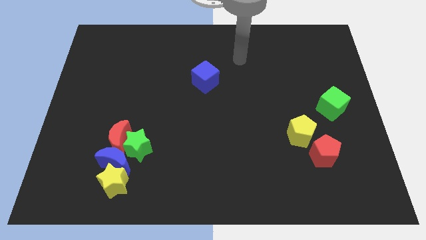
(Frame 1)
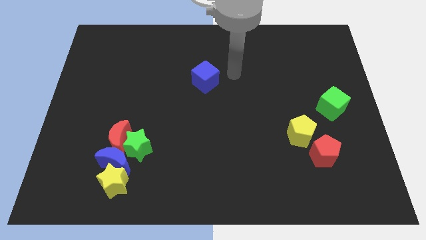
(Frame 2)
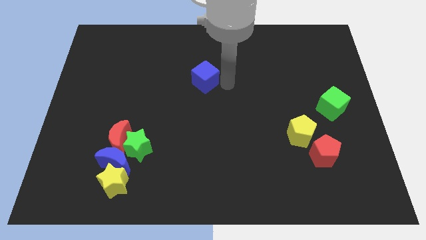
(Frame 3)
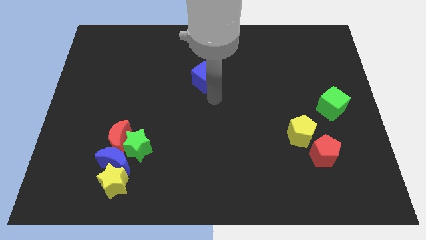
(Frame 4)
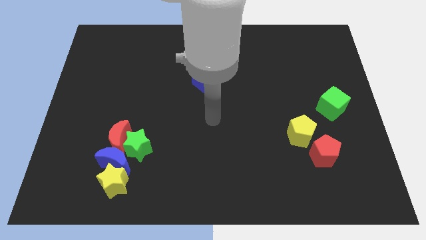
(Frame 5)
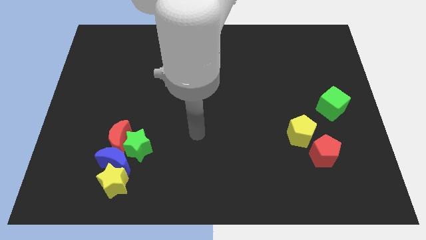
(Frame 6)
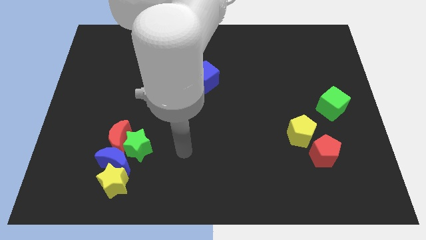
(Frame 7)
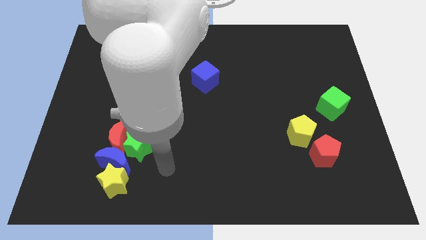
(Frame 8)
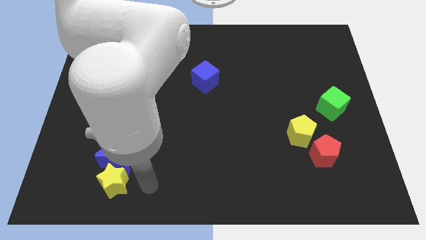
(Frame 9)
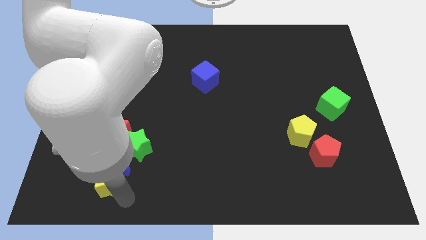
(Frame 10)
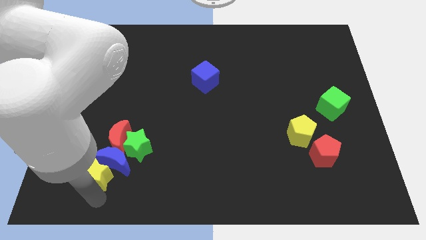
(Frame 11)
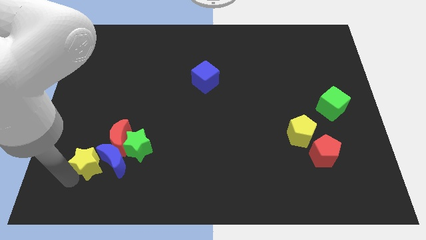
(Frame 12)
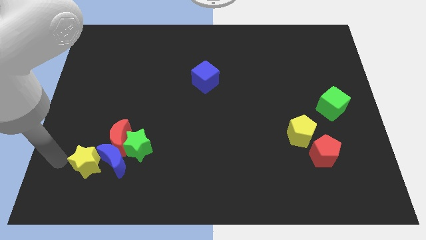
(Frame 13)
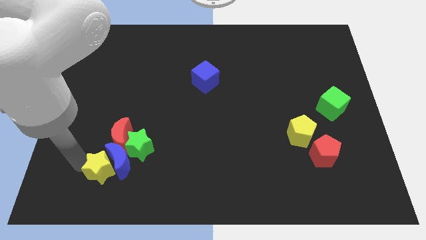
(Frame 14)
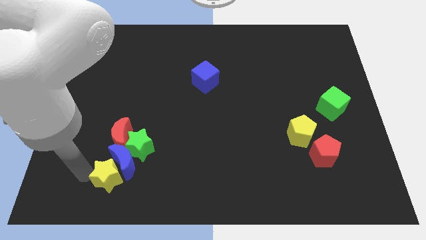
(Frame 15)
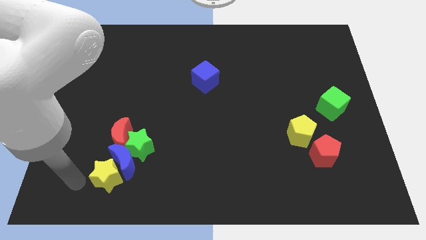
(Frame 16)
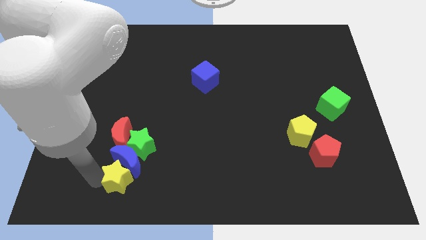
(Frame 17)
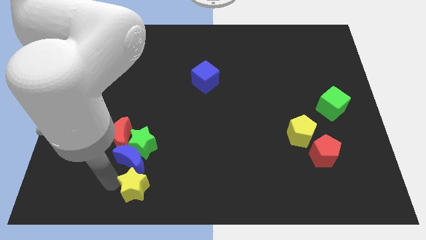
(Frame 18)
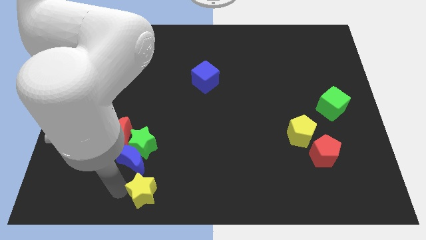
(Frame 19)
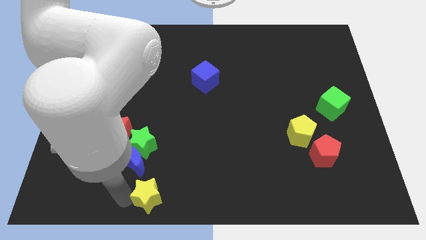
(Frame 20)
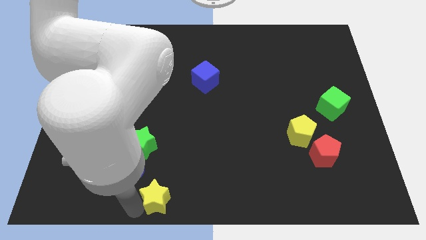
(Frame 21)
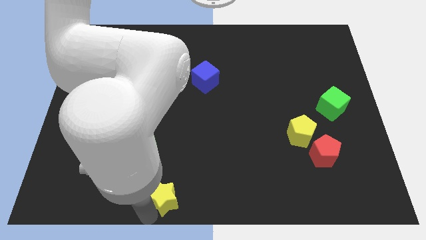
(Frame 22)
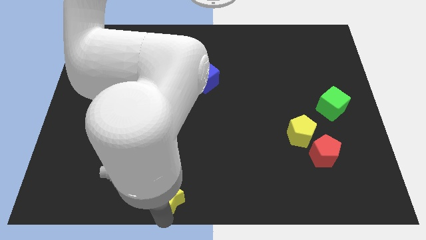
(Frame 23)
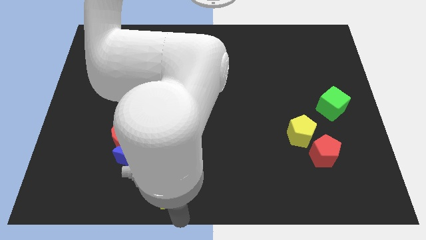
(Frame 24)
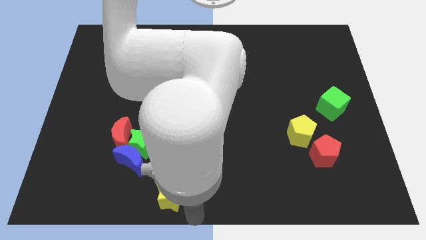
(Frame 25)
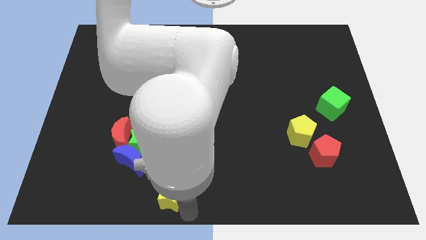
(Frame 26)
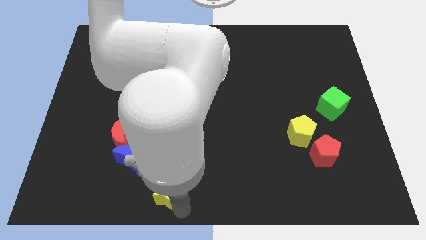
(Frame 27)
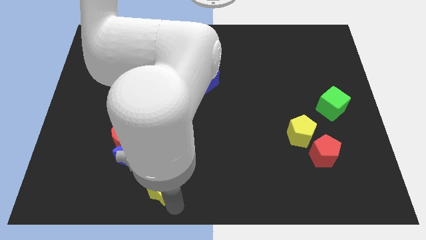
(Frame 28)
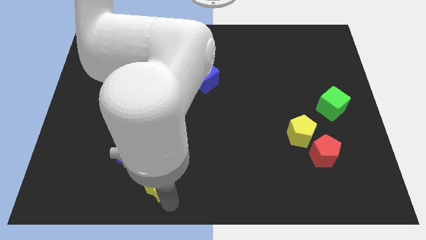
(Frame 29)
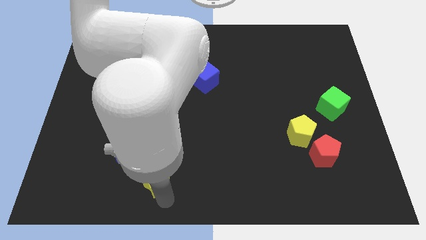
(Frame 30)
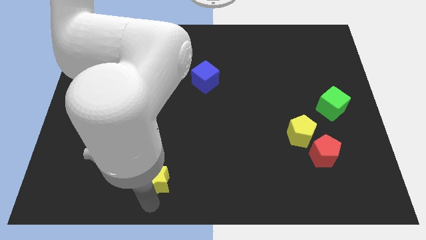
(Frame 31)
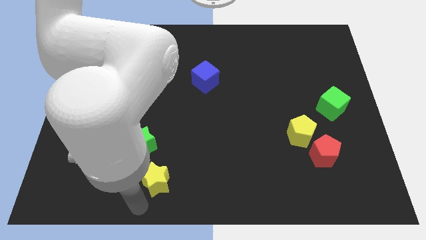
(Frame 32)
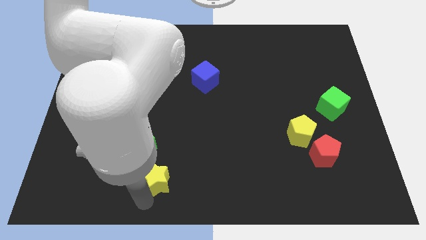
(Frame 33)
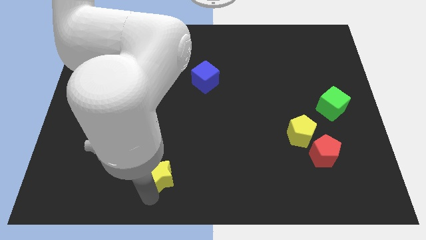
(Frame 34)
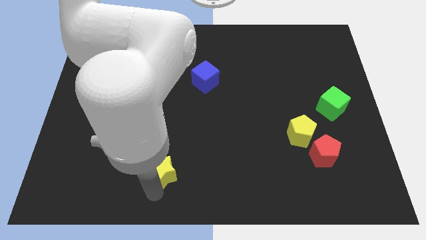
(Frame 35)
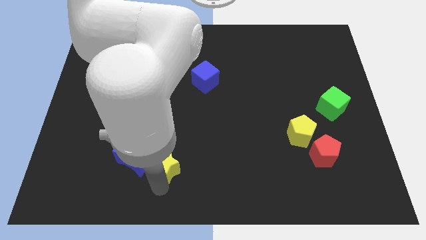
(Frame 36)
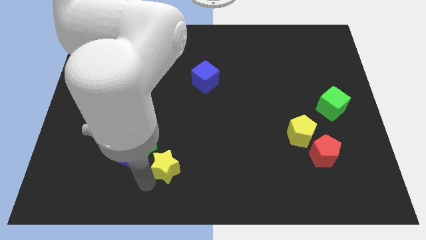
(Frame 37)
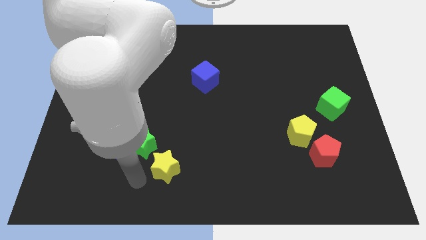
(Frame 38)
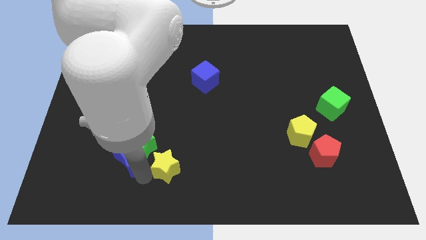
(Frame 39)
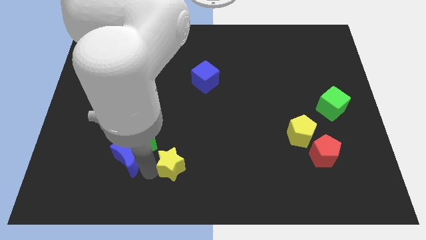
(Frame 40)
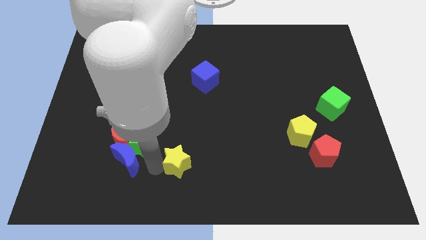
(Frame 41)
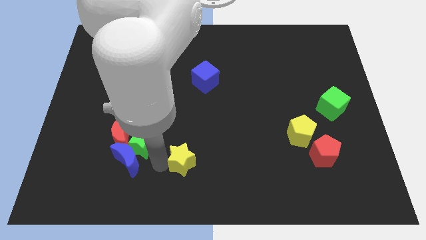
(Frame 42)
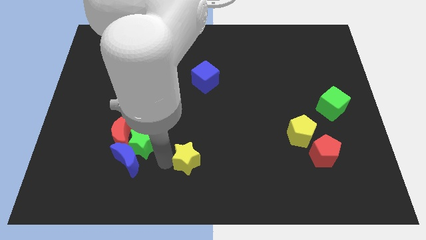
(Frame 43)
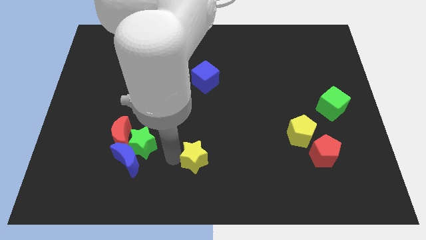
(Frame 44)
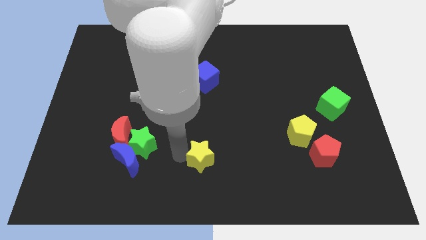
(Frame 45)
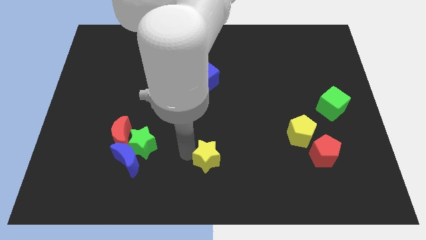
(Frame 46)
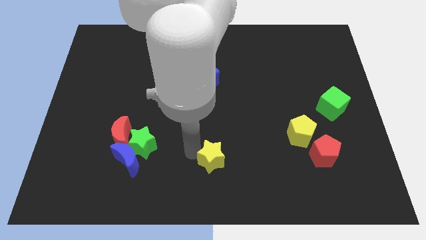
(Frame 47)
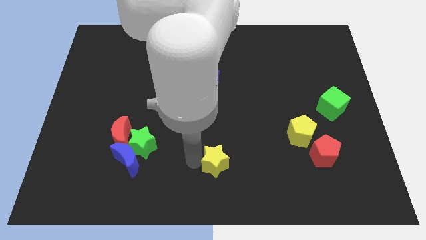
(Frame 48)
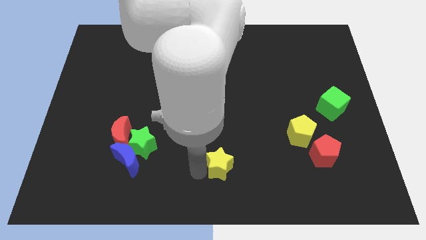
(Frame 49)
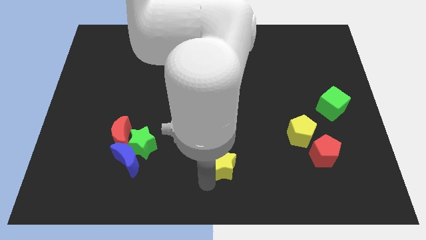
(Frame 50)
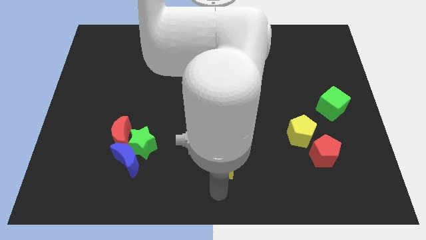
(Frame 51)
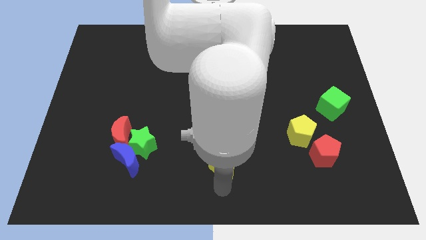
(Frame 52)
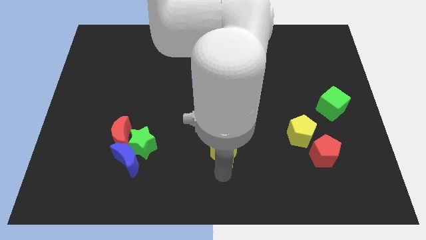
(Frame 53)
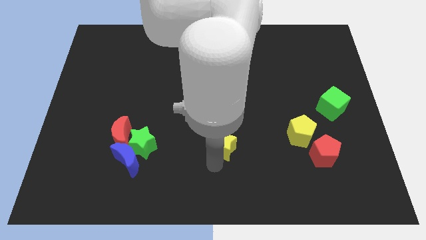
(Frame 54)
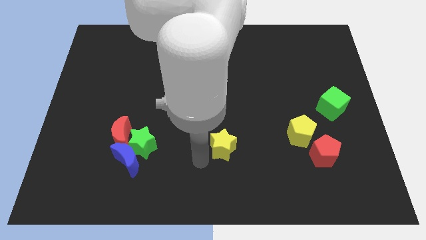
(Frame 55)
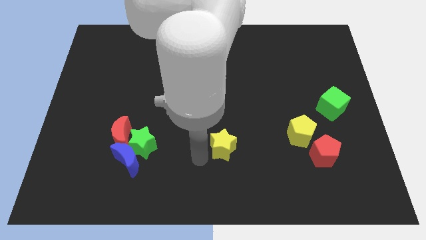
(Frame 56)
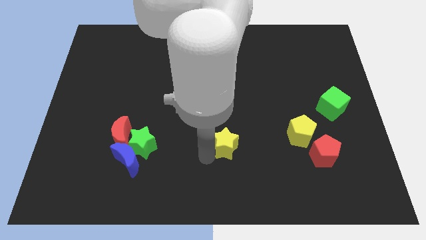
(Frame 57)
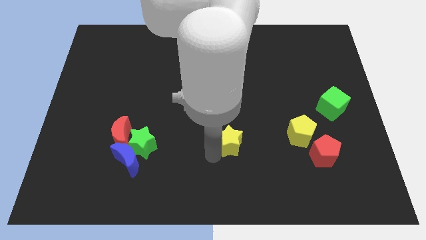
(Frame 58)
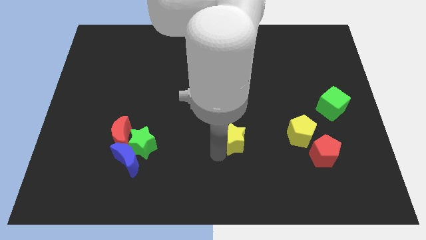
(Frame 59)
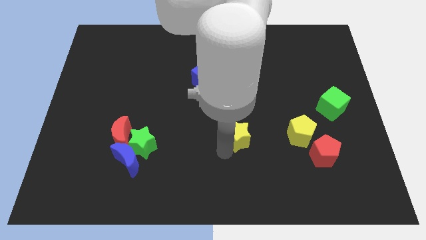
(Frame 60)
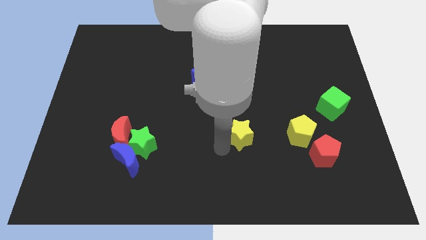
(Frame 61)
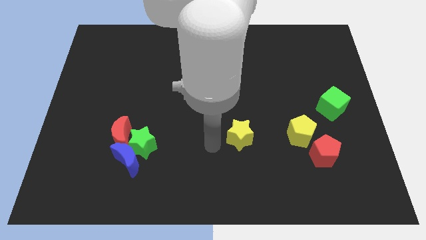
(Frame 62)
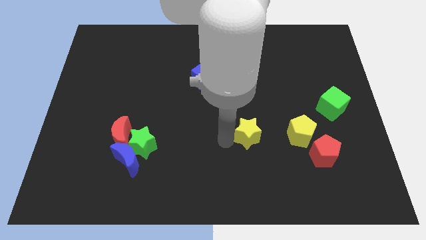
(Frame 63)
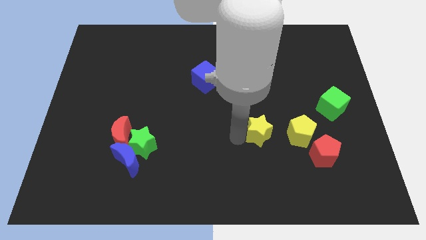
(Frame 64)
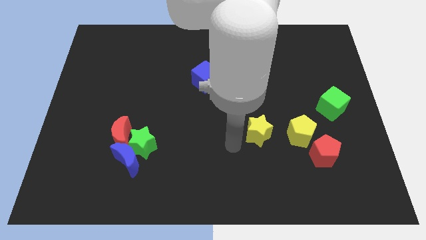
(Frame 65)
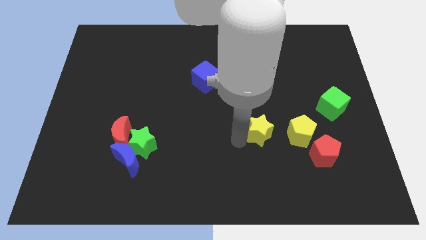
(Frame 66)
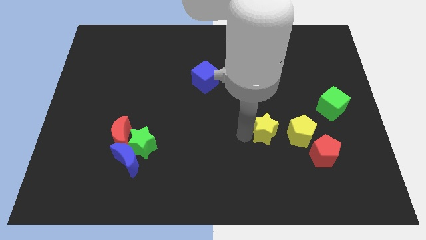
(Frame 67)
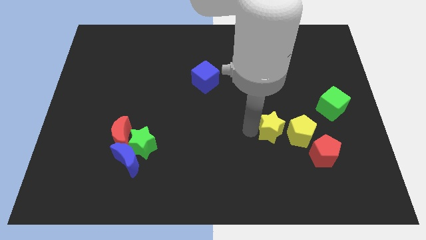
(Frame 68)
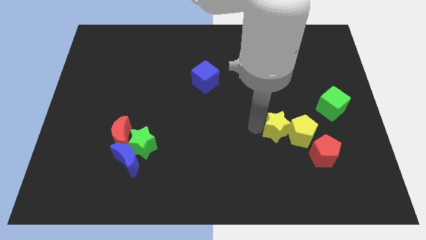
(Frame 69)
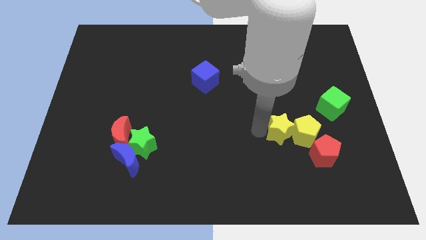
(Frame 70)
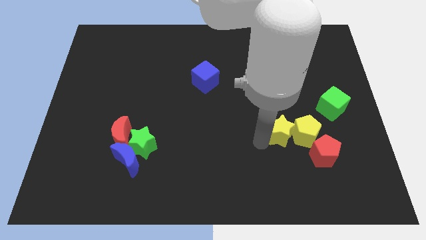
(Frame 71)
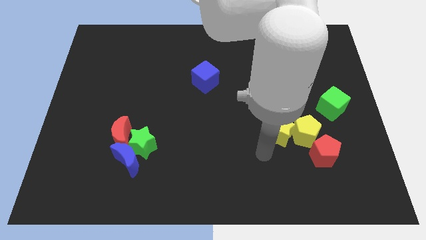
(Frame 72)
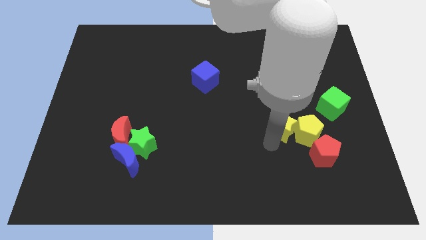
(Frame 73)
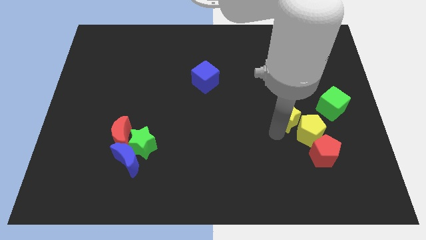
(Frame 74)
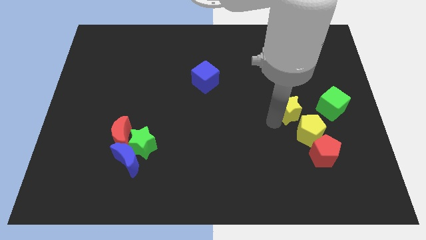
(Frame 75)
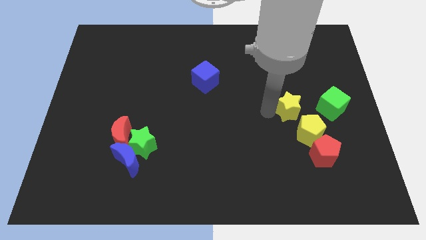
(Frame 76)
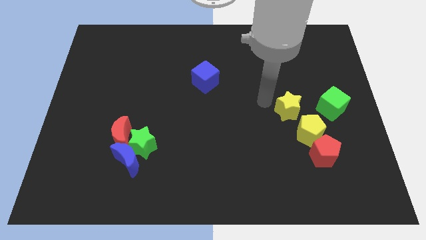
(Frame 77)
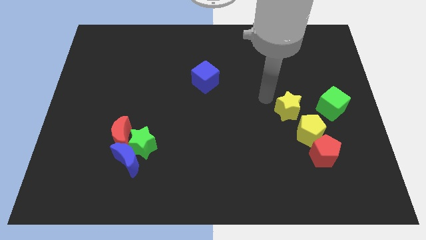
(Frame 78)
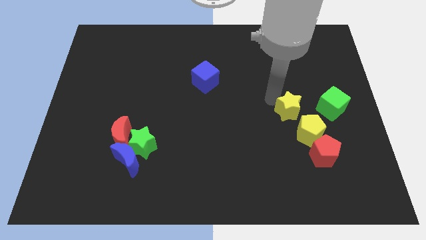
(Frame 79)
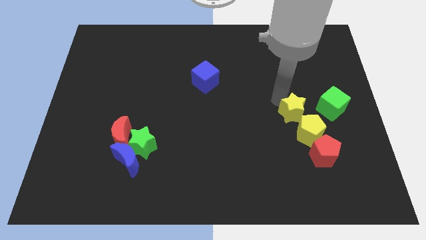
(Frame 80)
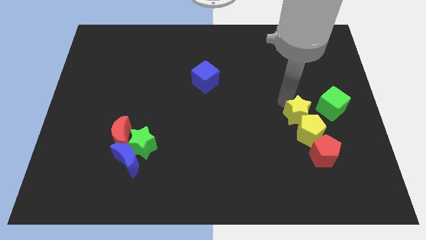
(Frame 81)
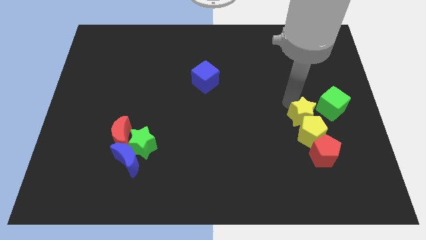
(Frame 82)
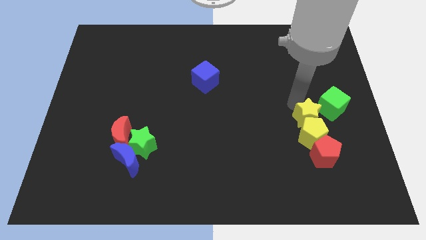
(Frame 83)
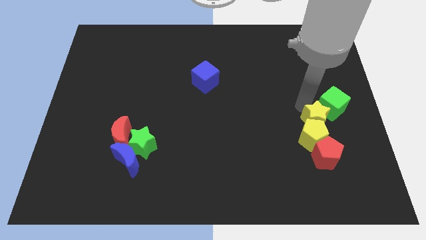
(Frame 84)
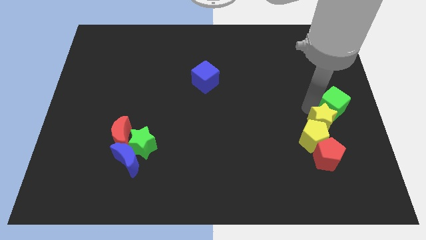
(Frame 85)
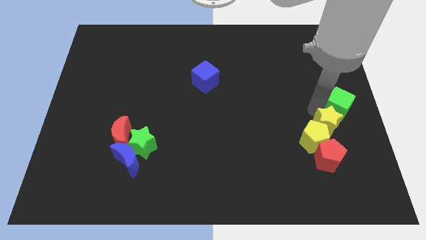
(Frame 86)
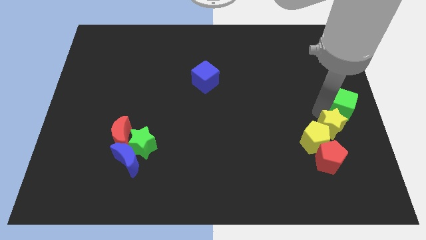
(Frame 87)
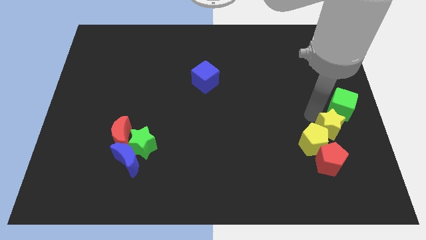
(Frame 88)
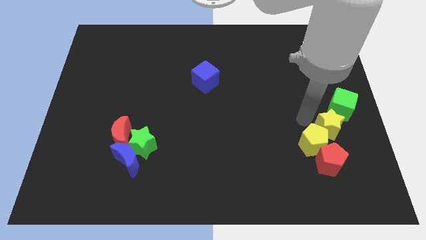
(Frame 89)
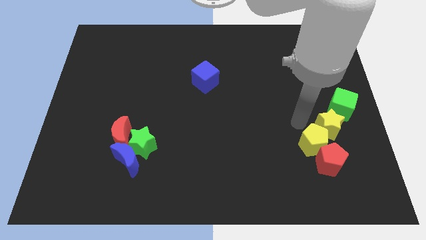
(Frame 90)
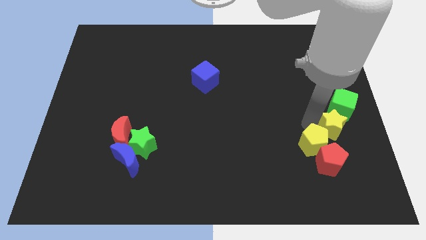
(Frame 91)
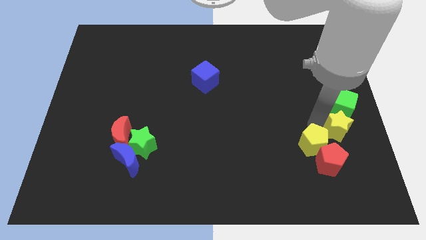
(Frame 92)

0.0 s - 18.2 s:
slide the yellow star to the right side
